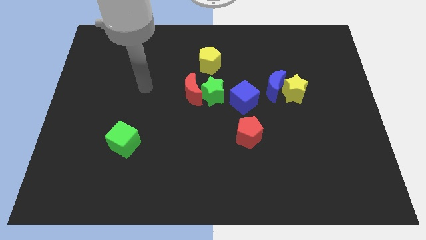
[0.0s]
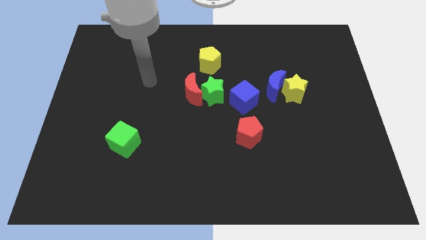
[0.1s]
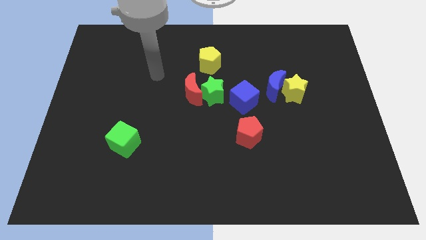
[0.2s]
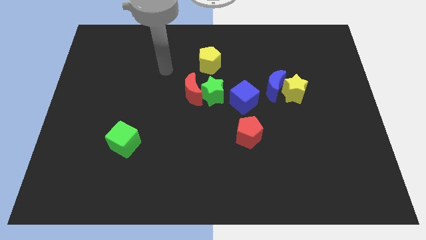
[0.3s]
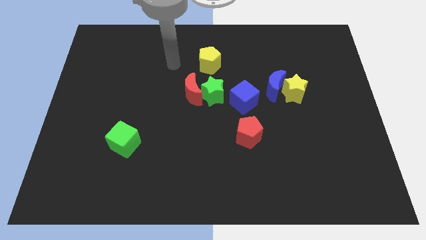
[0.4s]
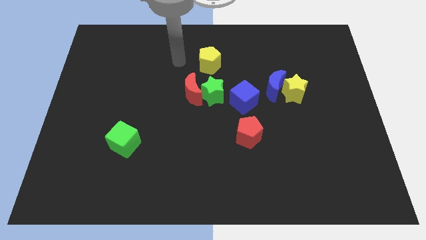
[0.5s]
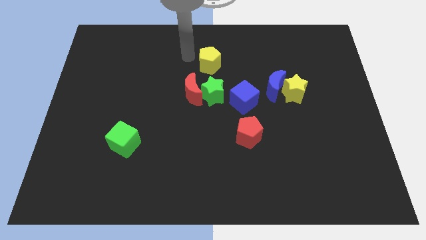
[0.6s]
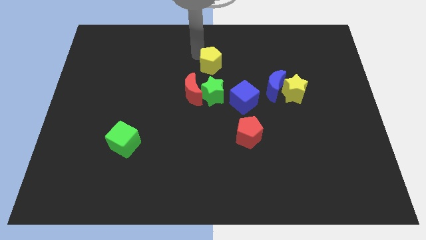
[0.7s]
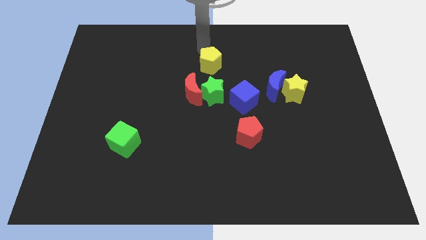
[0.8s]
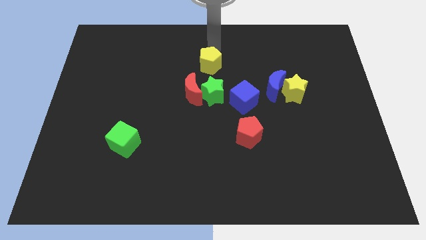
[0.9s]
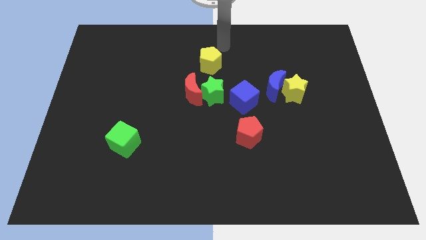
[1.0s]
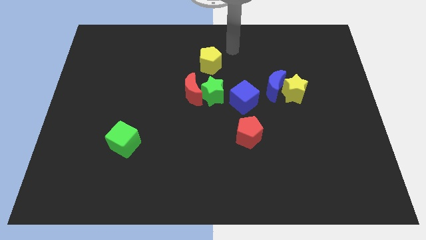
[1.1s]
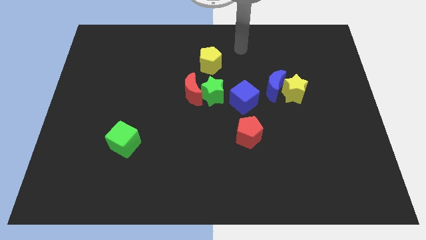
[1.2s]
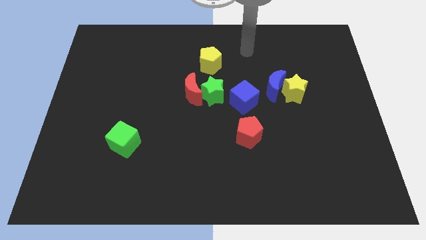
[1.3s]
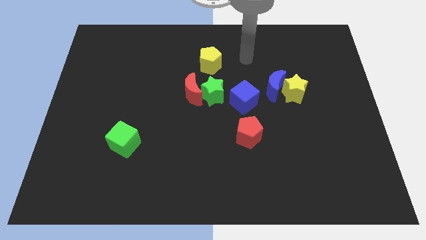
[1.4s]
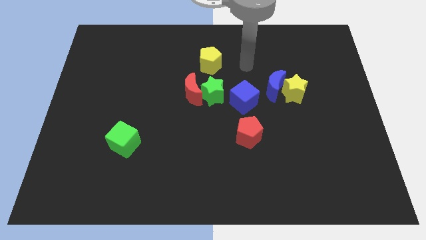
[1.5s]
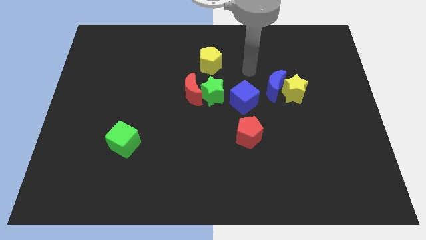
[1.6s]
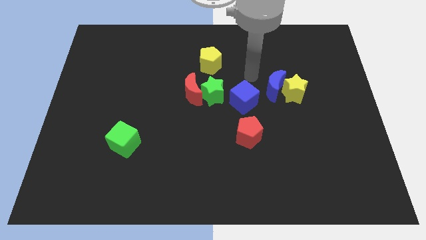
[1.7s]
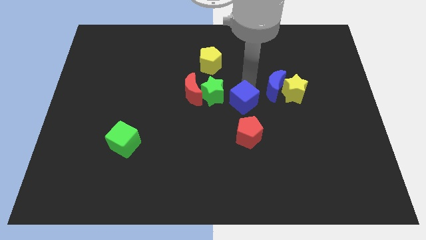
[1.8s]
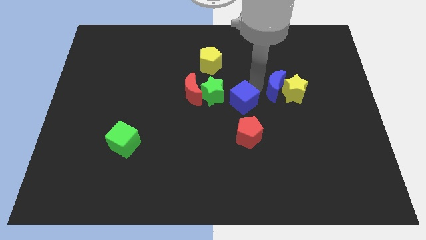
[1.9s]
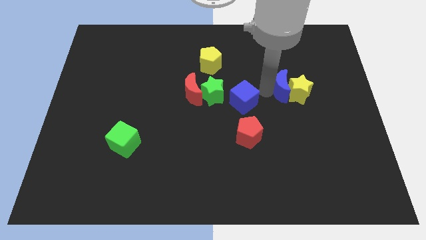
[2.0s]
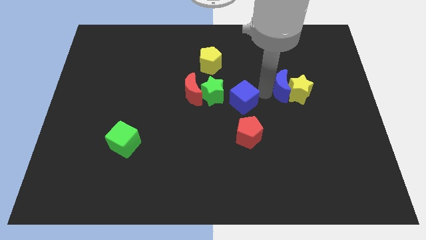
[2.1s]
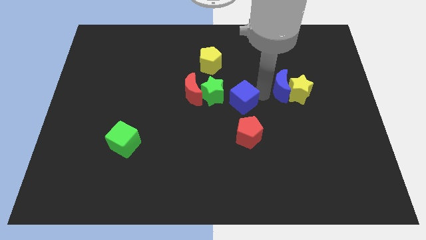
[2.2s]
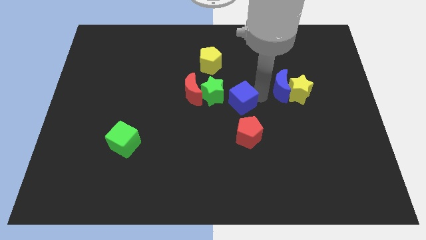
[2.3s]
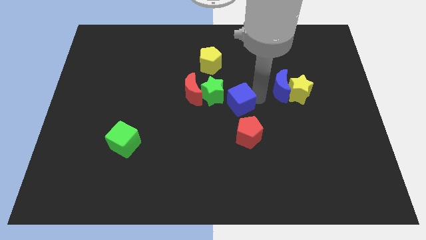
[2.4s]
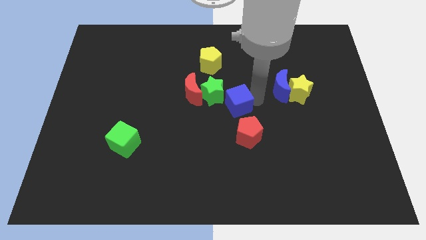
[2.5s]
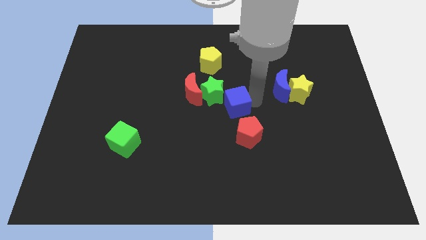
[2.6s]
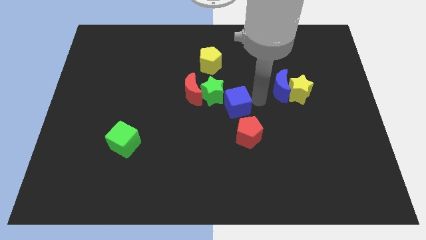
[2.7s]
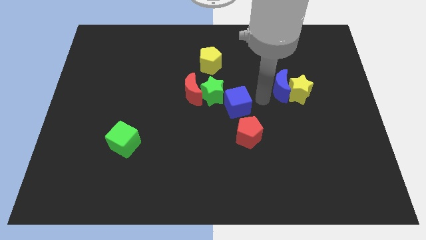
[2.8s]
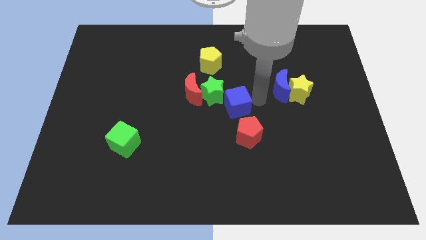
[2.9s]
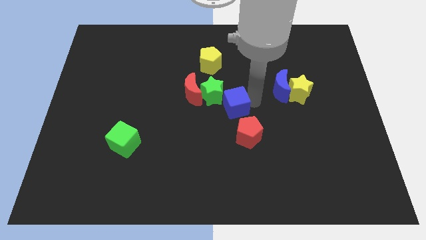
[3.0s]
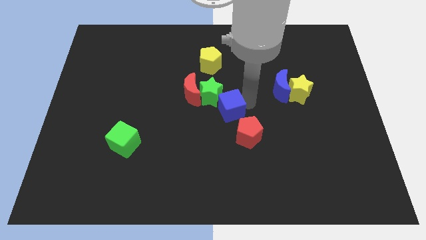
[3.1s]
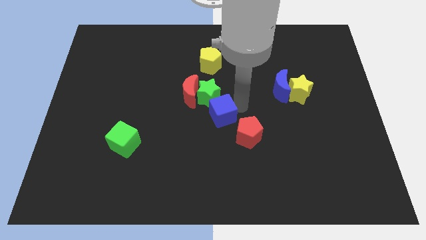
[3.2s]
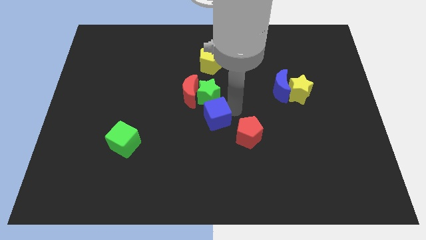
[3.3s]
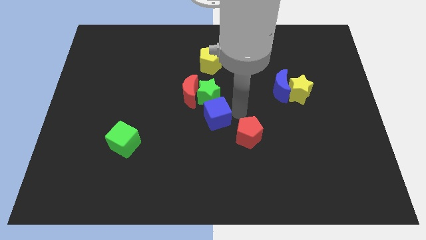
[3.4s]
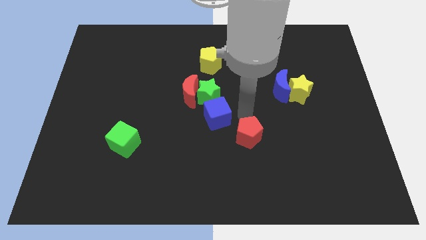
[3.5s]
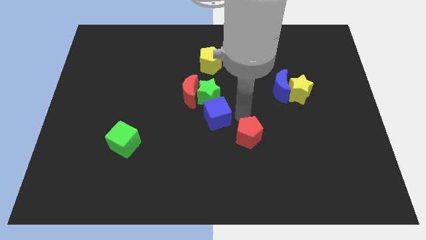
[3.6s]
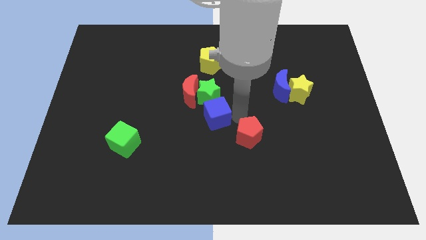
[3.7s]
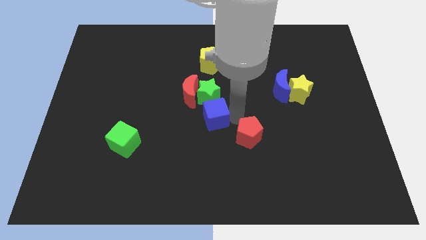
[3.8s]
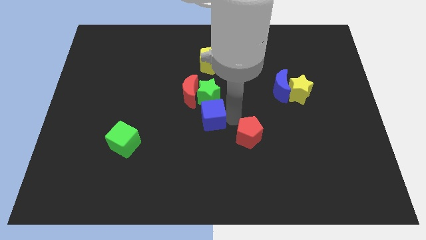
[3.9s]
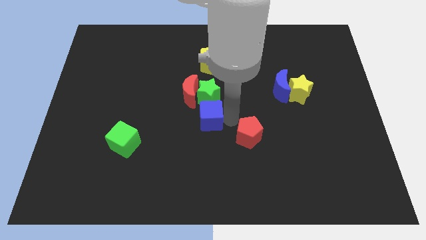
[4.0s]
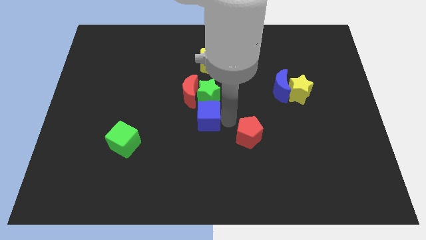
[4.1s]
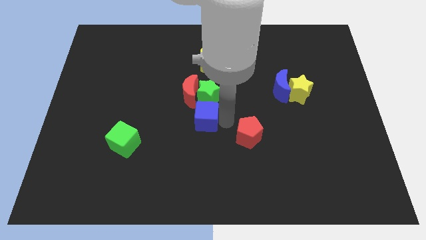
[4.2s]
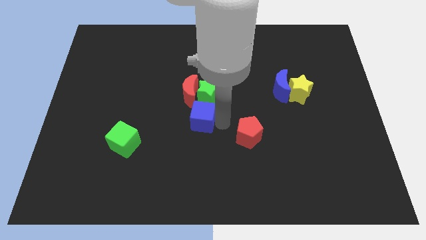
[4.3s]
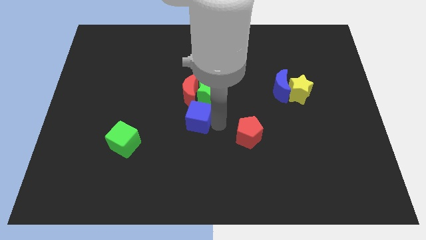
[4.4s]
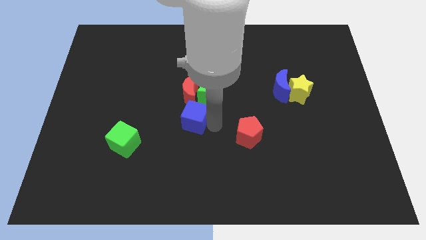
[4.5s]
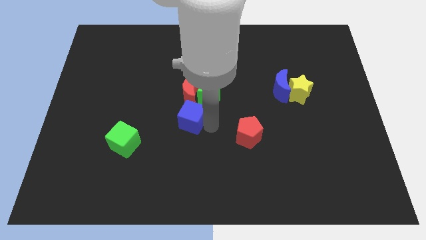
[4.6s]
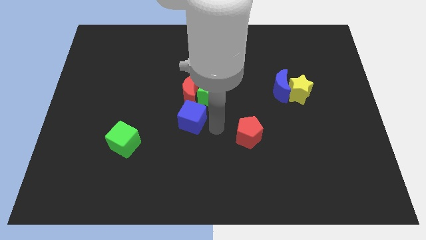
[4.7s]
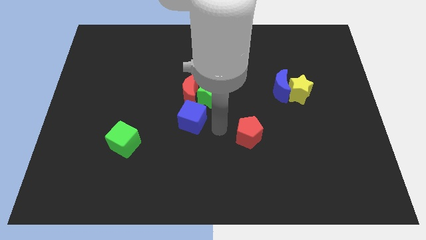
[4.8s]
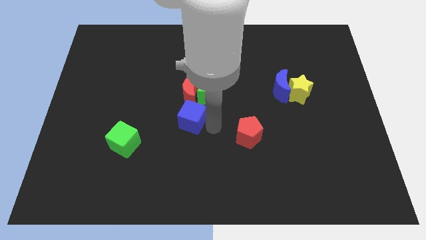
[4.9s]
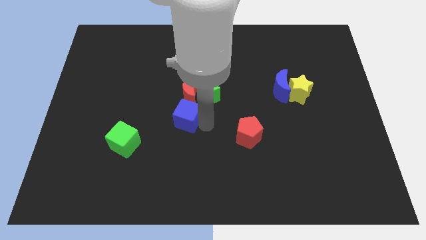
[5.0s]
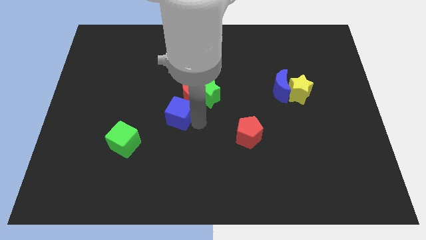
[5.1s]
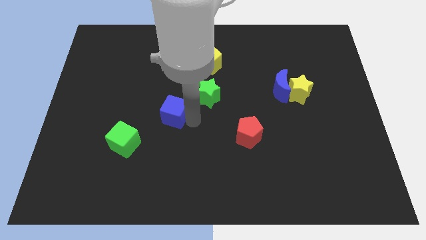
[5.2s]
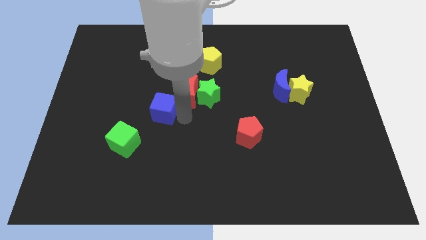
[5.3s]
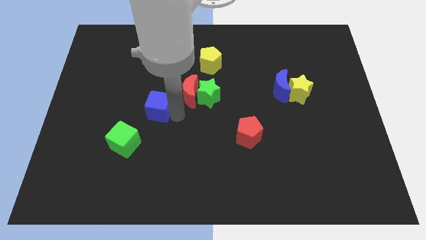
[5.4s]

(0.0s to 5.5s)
slide the blue cube left

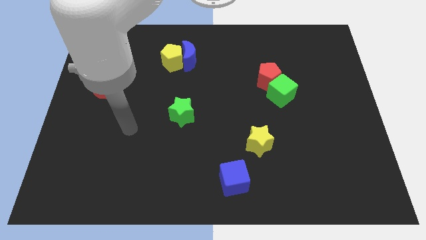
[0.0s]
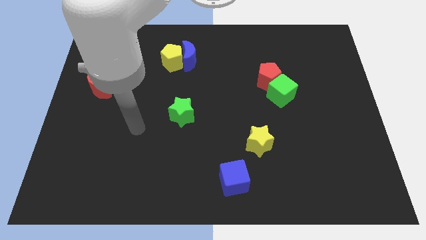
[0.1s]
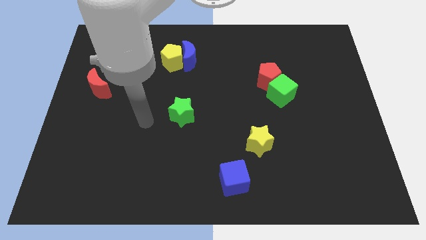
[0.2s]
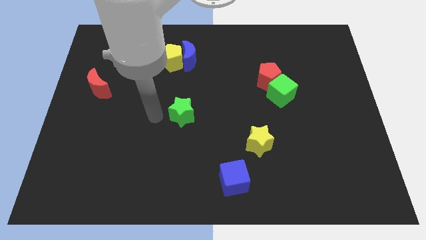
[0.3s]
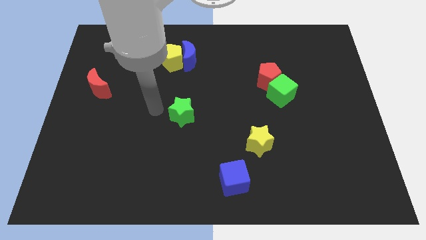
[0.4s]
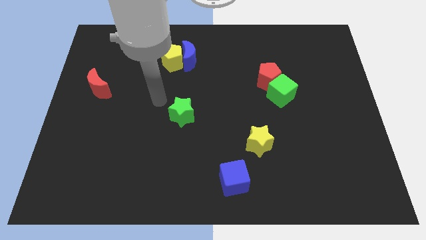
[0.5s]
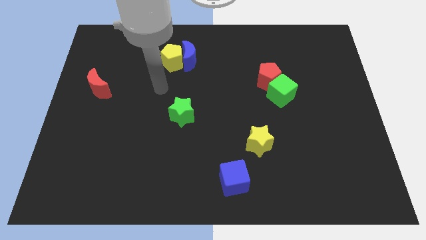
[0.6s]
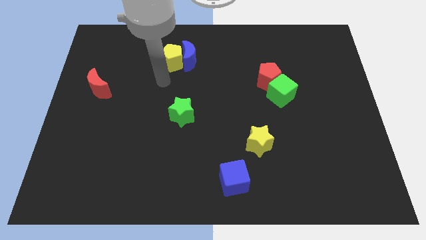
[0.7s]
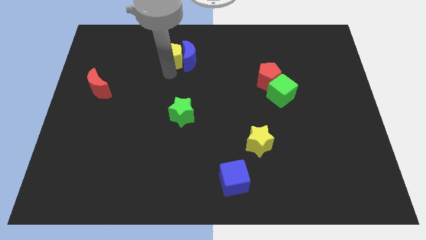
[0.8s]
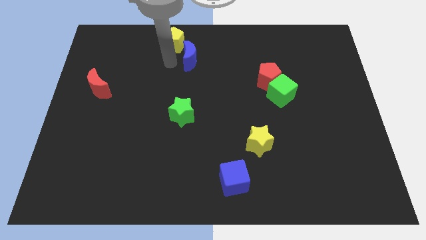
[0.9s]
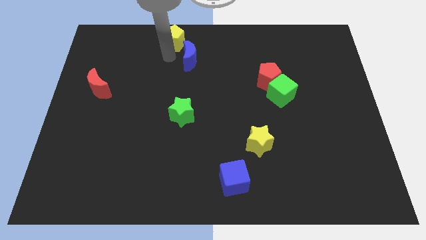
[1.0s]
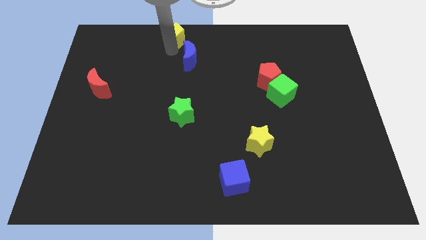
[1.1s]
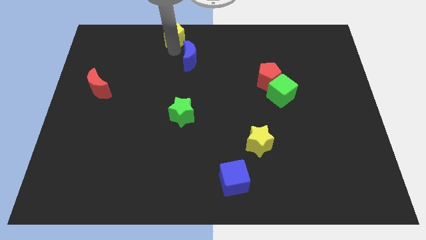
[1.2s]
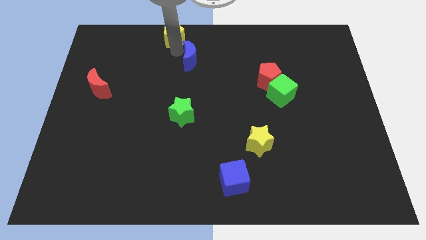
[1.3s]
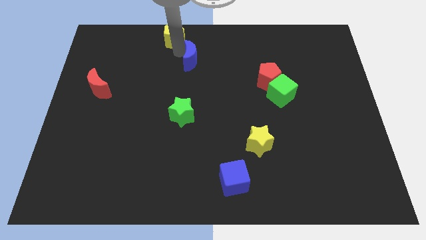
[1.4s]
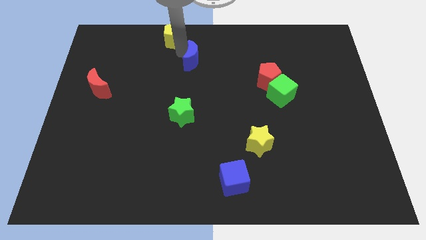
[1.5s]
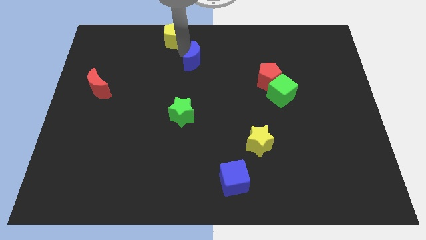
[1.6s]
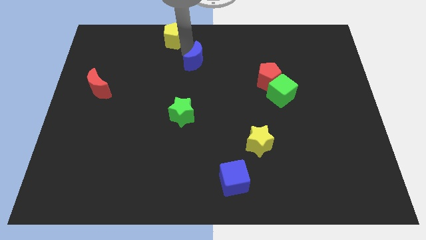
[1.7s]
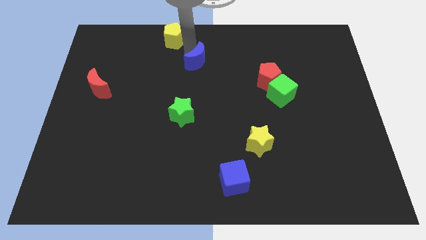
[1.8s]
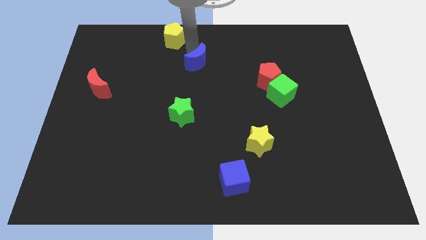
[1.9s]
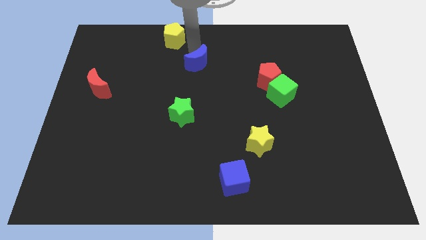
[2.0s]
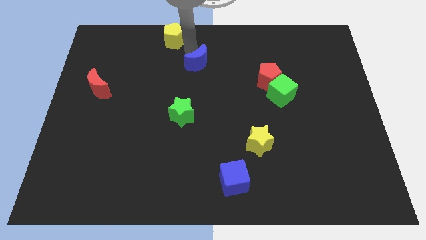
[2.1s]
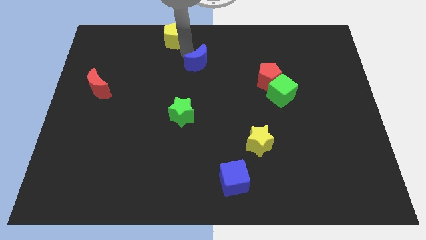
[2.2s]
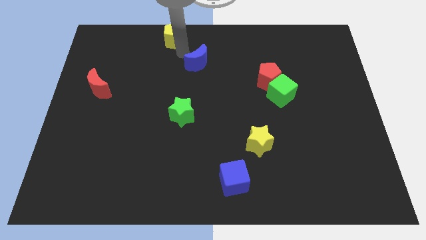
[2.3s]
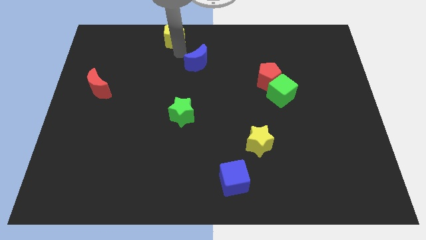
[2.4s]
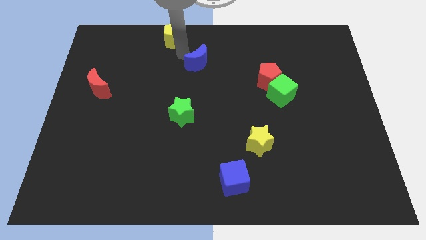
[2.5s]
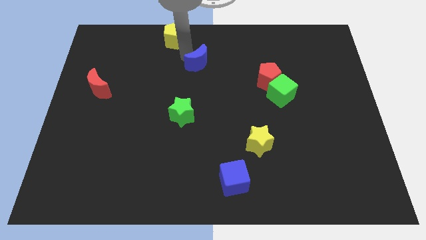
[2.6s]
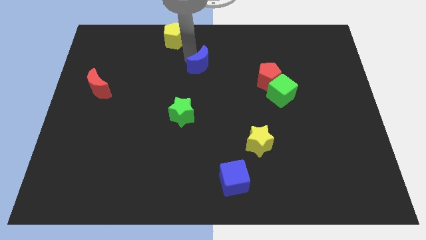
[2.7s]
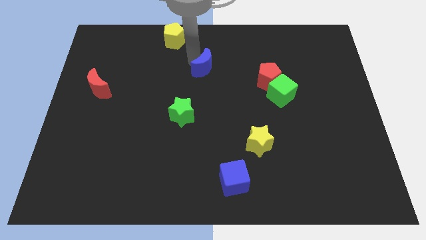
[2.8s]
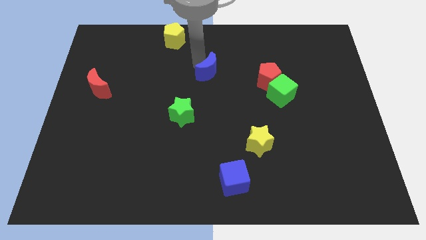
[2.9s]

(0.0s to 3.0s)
slide the blue moon a bit down and then right

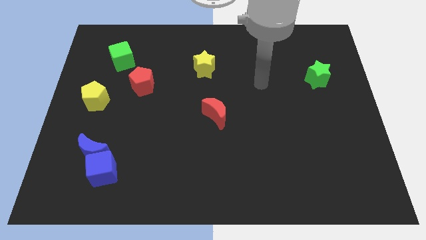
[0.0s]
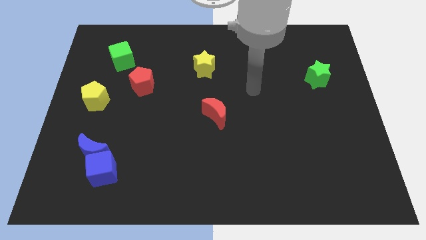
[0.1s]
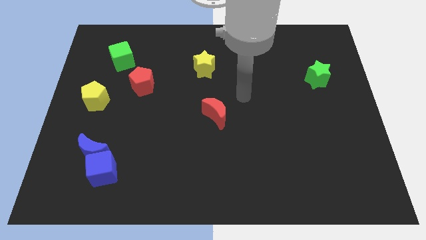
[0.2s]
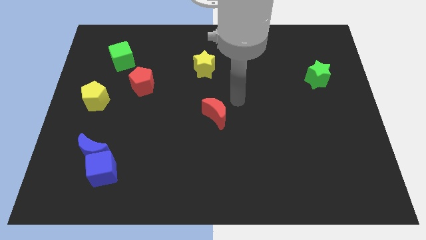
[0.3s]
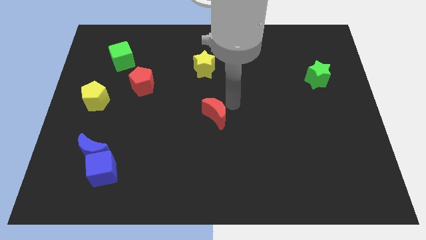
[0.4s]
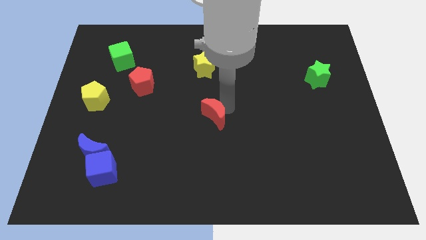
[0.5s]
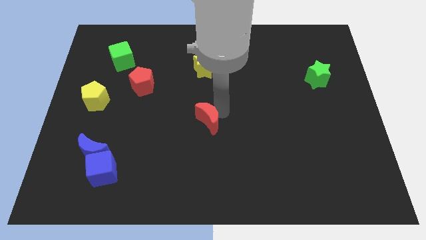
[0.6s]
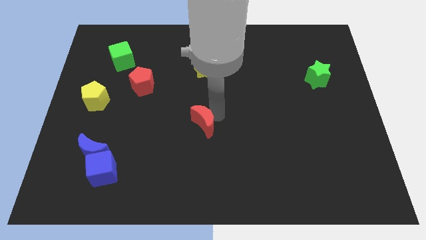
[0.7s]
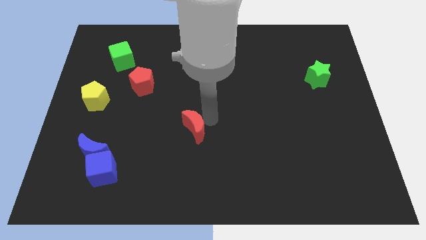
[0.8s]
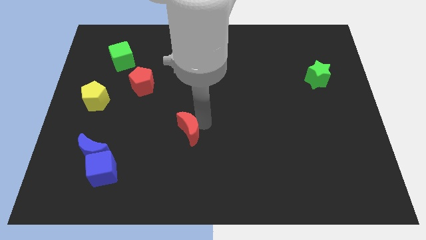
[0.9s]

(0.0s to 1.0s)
move the red moon a bit downwards and to the left
